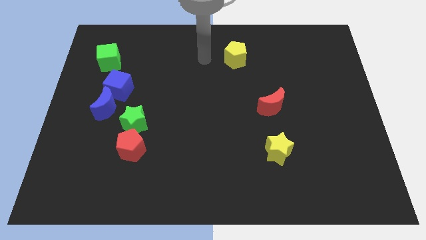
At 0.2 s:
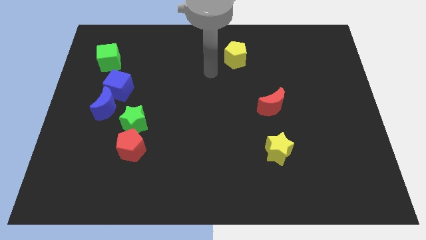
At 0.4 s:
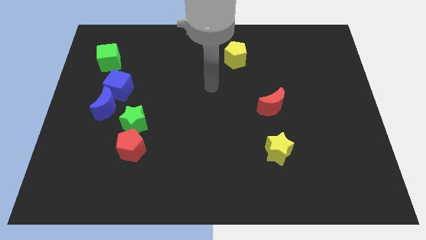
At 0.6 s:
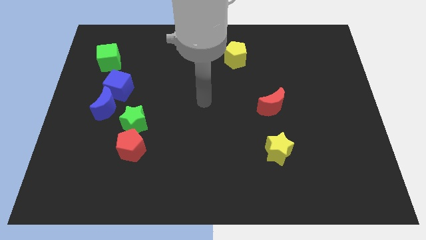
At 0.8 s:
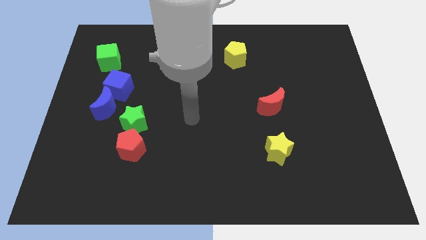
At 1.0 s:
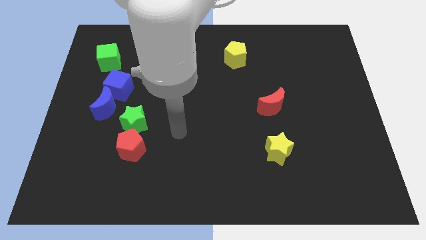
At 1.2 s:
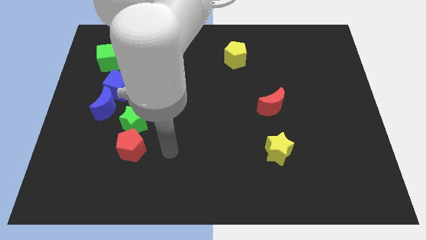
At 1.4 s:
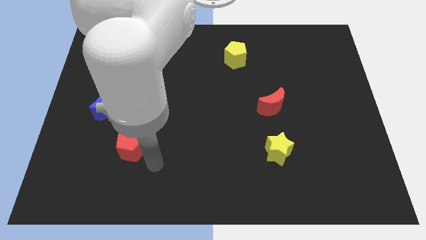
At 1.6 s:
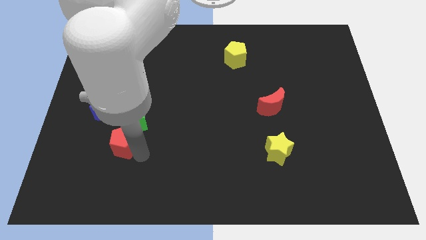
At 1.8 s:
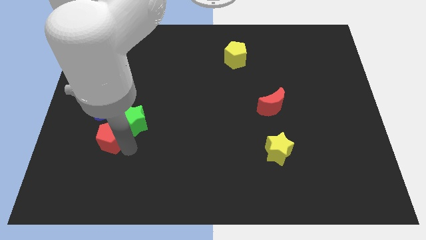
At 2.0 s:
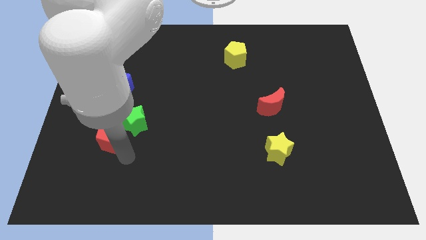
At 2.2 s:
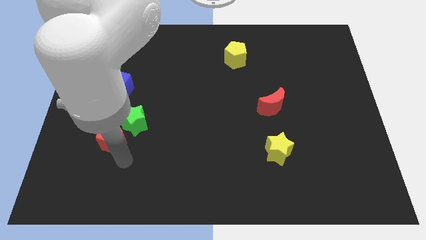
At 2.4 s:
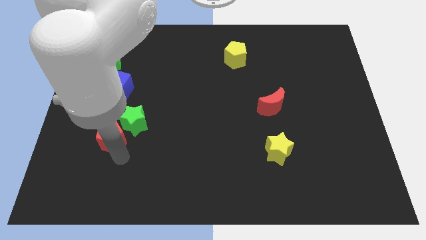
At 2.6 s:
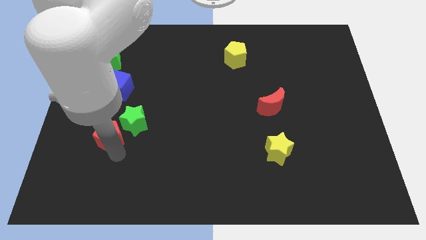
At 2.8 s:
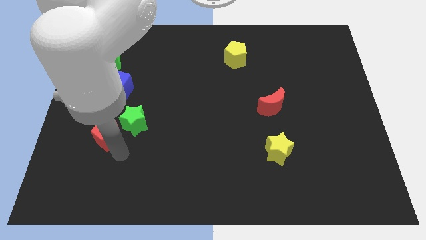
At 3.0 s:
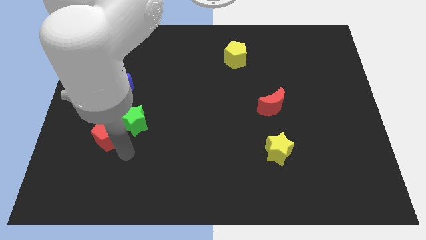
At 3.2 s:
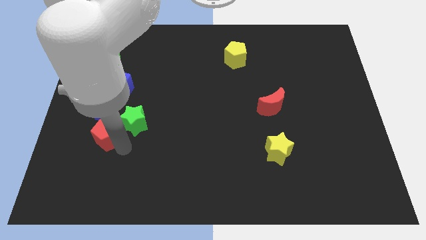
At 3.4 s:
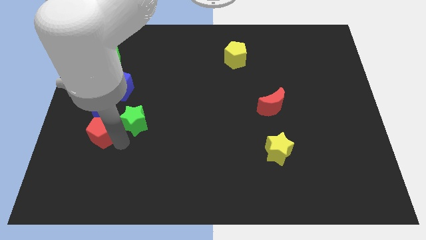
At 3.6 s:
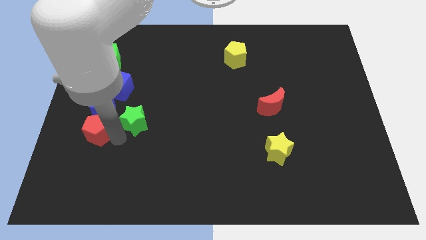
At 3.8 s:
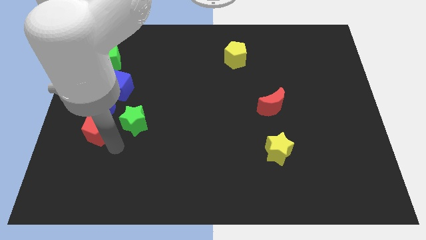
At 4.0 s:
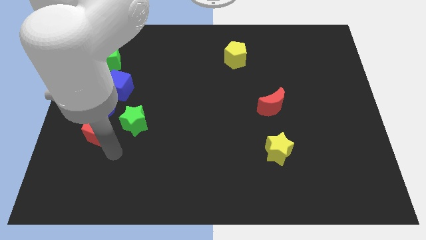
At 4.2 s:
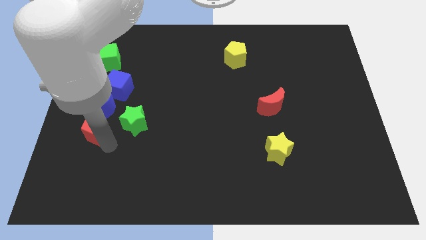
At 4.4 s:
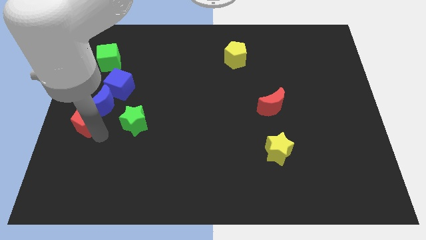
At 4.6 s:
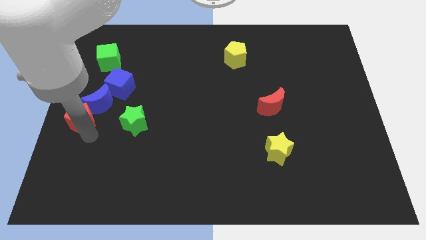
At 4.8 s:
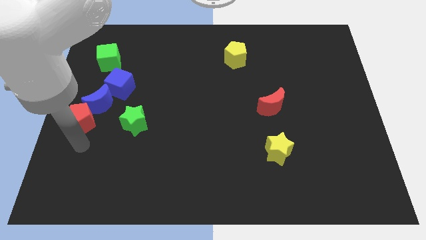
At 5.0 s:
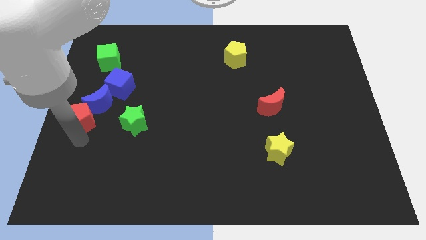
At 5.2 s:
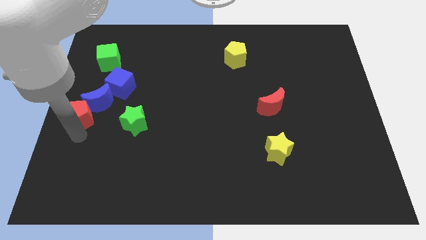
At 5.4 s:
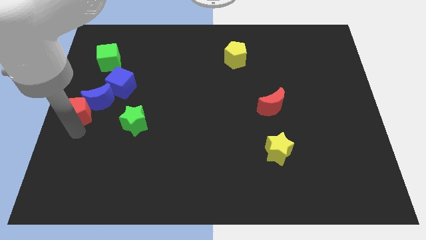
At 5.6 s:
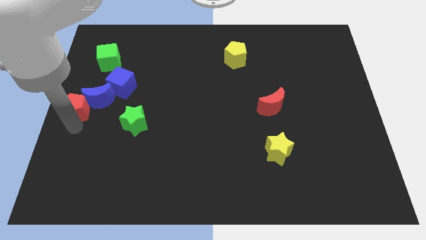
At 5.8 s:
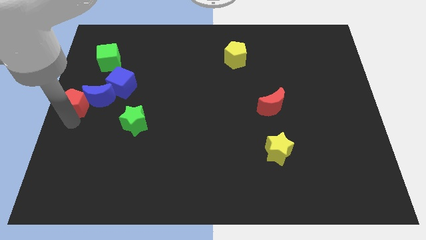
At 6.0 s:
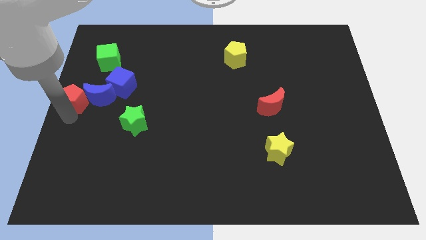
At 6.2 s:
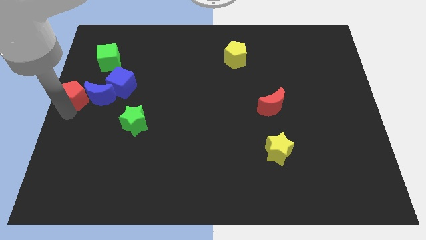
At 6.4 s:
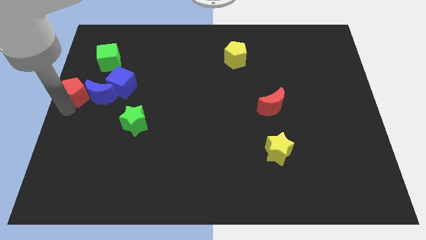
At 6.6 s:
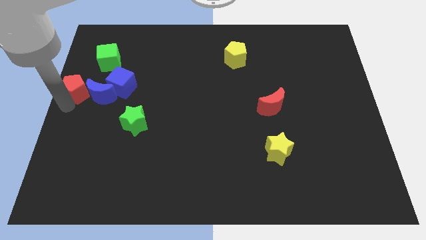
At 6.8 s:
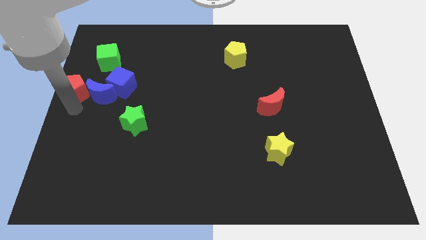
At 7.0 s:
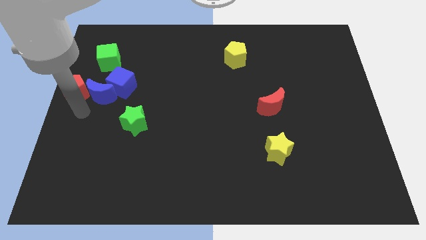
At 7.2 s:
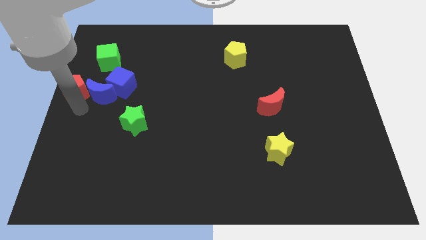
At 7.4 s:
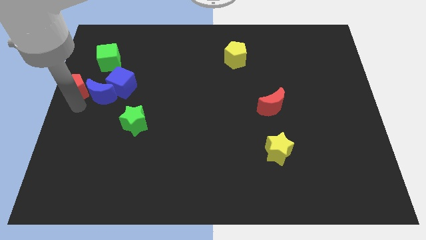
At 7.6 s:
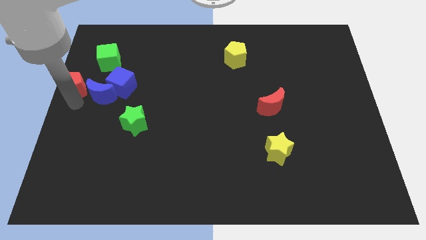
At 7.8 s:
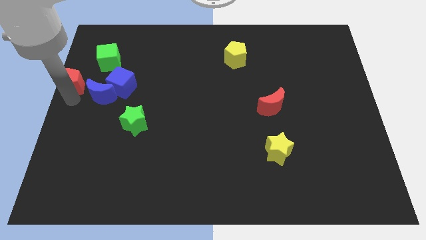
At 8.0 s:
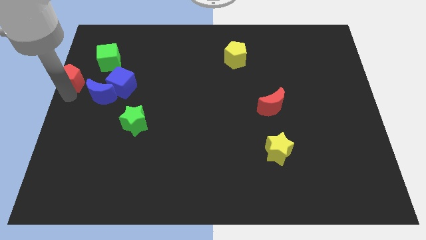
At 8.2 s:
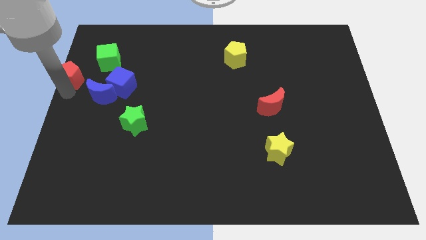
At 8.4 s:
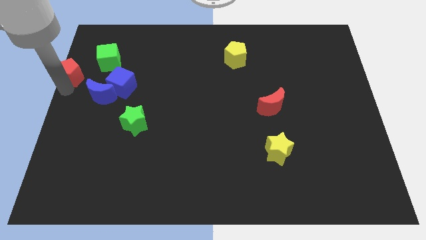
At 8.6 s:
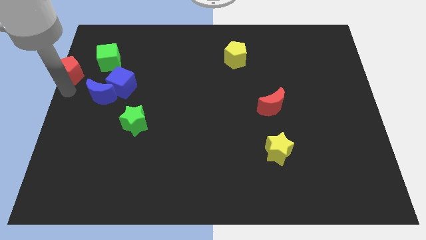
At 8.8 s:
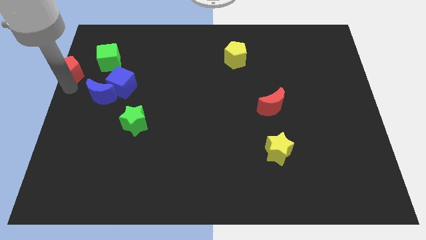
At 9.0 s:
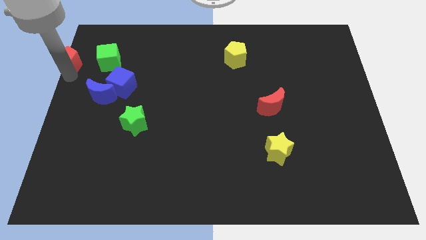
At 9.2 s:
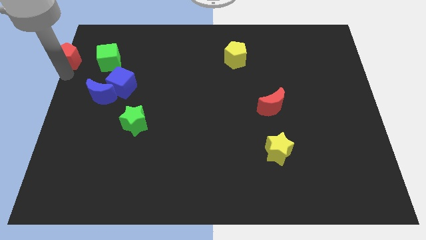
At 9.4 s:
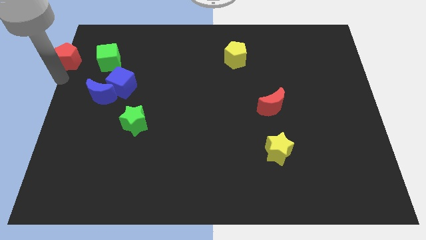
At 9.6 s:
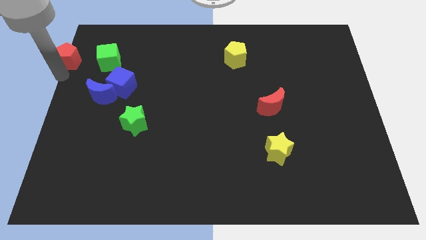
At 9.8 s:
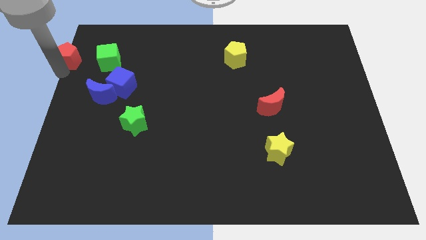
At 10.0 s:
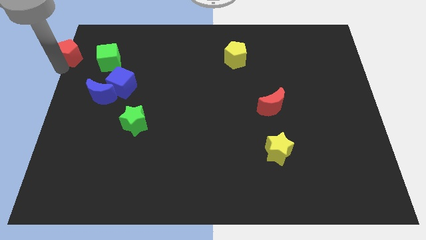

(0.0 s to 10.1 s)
slide the red pentagon to the top left corner

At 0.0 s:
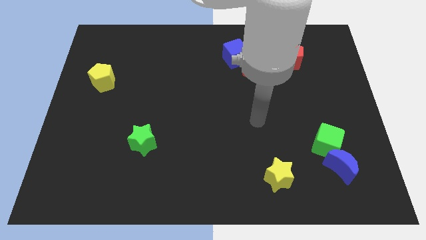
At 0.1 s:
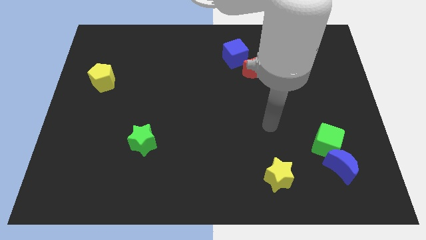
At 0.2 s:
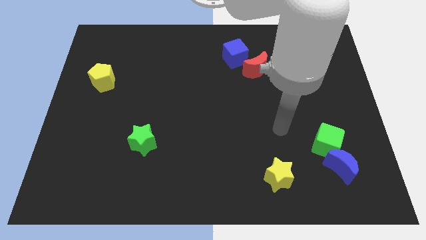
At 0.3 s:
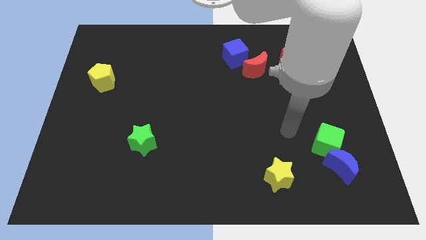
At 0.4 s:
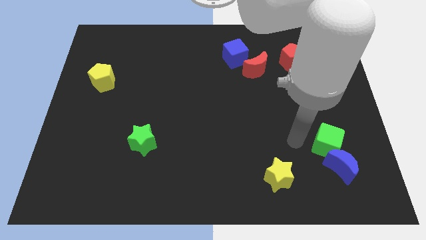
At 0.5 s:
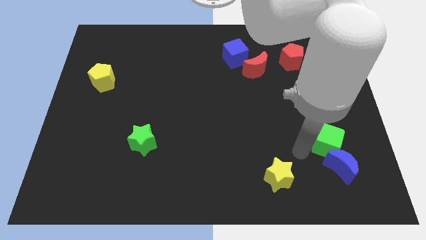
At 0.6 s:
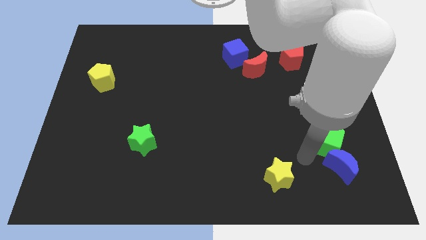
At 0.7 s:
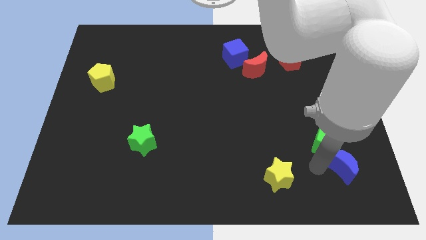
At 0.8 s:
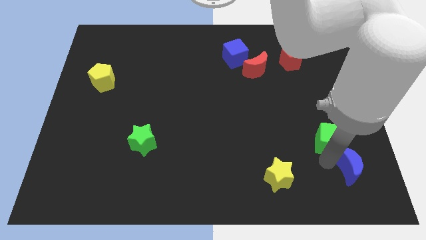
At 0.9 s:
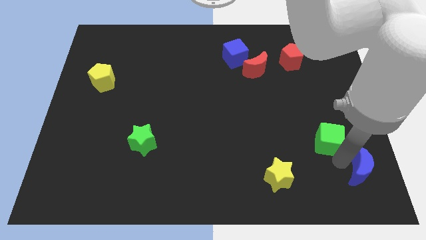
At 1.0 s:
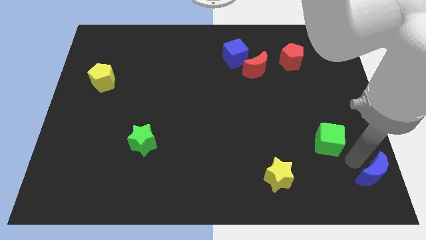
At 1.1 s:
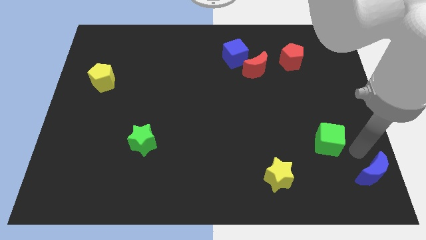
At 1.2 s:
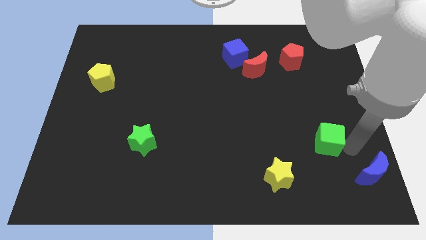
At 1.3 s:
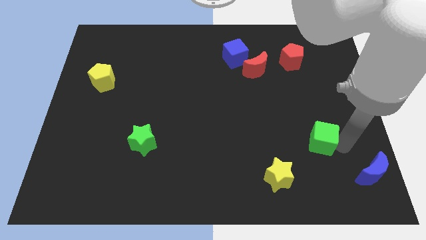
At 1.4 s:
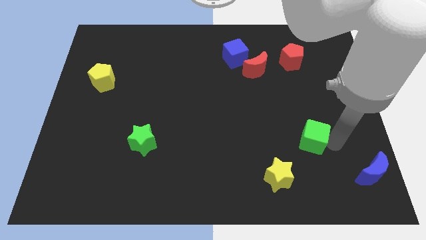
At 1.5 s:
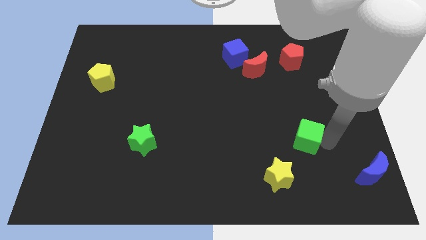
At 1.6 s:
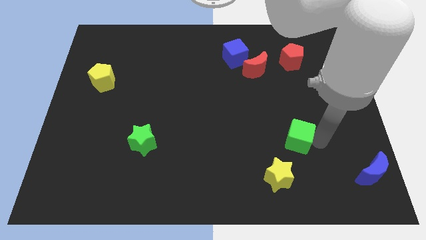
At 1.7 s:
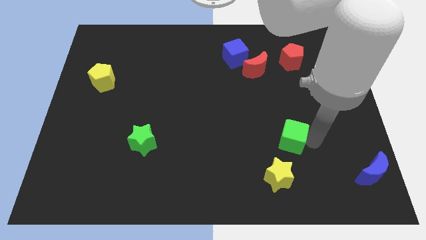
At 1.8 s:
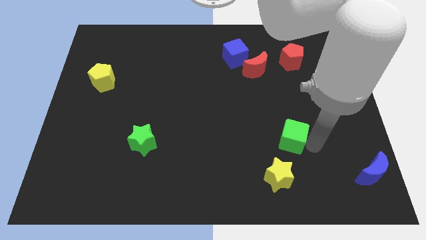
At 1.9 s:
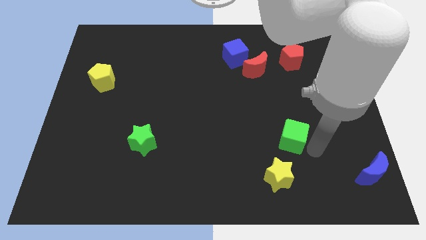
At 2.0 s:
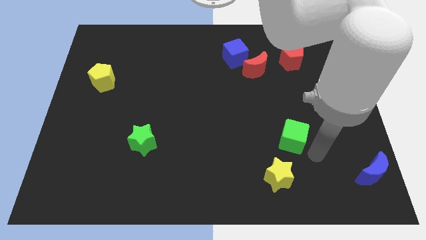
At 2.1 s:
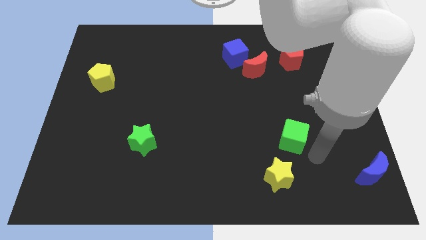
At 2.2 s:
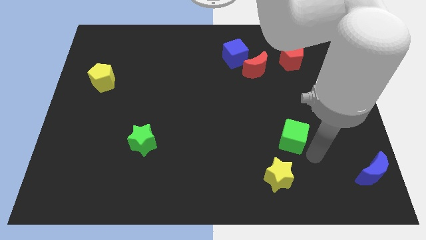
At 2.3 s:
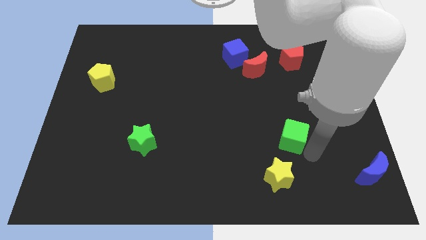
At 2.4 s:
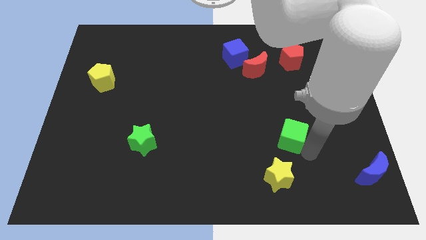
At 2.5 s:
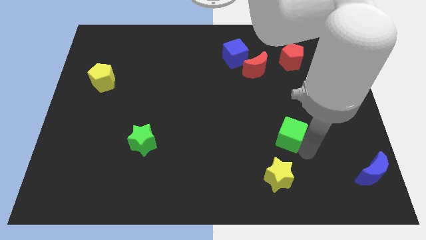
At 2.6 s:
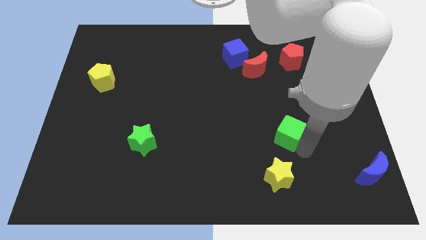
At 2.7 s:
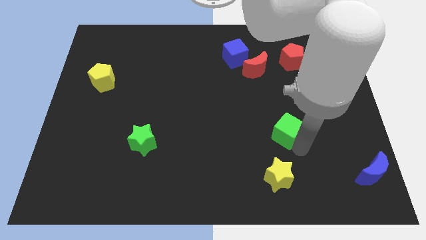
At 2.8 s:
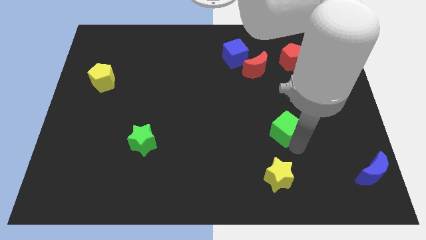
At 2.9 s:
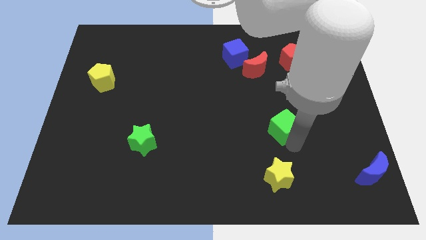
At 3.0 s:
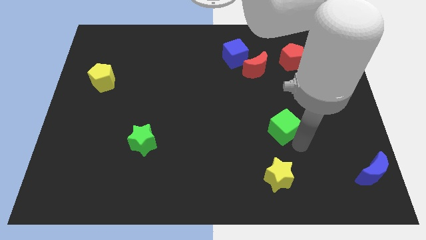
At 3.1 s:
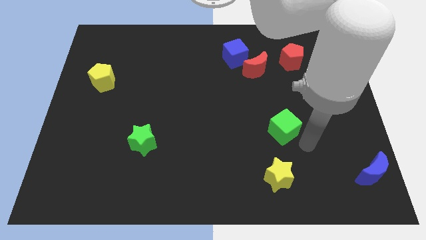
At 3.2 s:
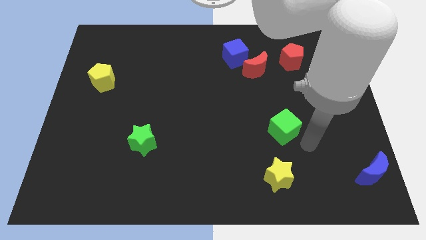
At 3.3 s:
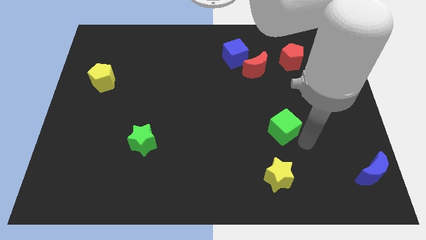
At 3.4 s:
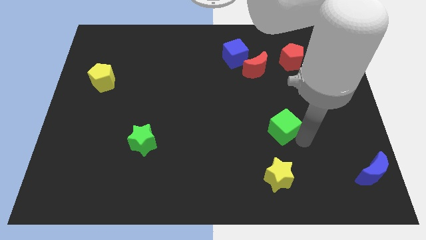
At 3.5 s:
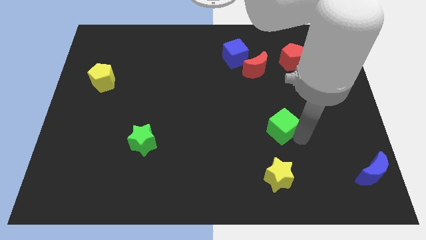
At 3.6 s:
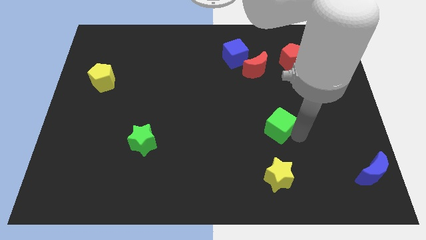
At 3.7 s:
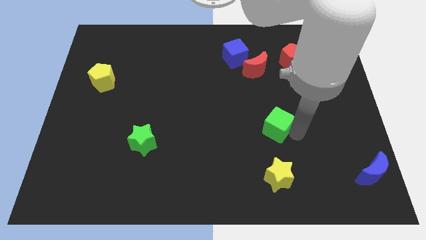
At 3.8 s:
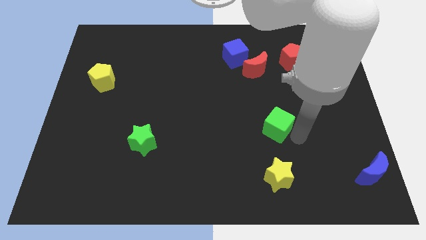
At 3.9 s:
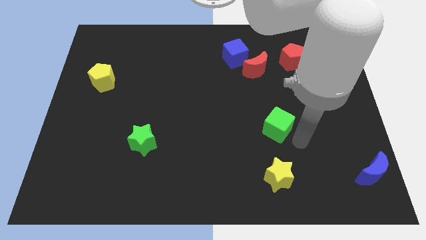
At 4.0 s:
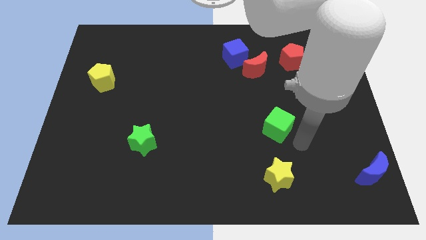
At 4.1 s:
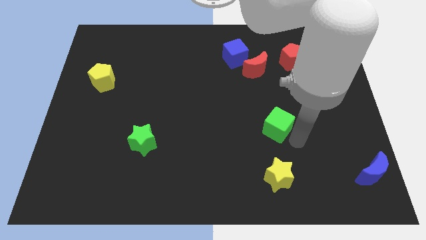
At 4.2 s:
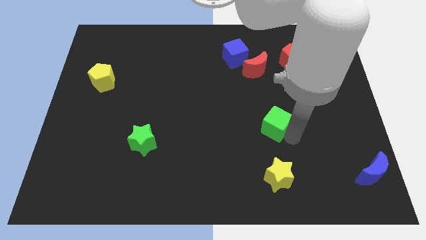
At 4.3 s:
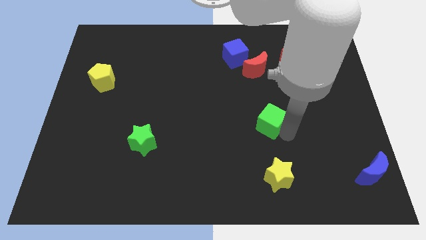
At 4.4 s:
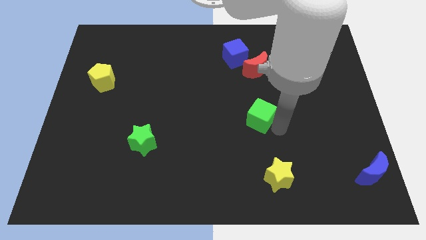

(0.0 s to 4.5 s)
slide the green cube to the middle of the board
